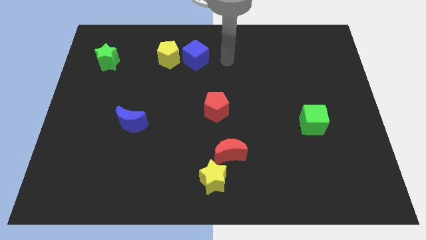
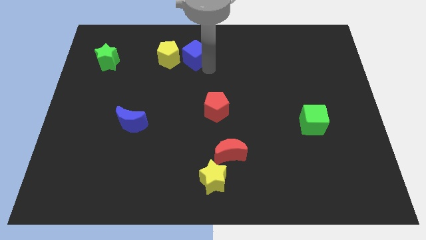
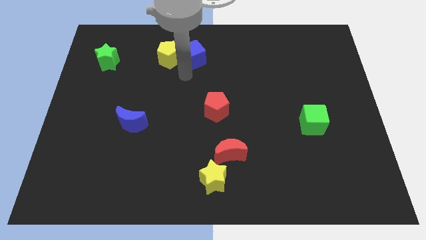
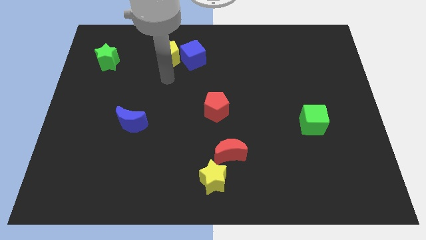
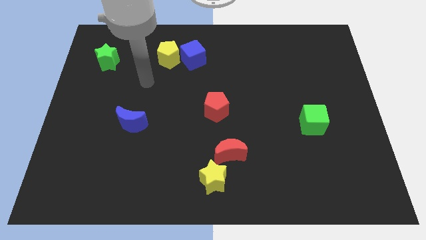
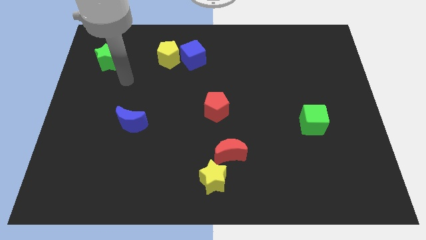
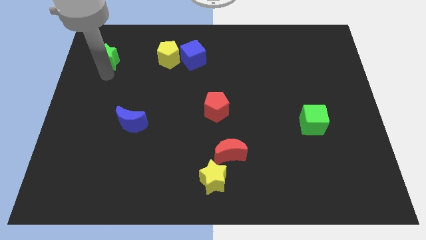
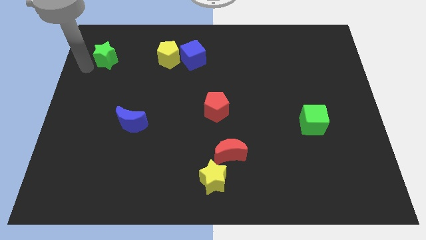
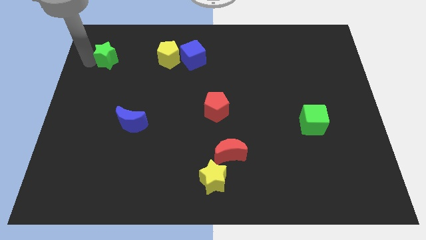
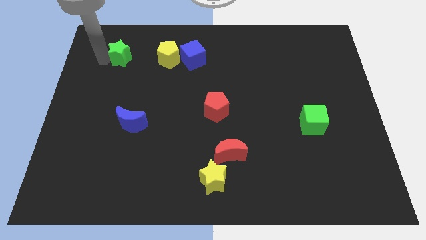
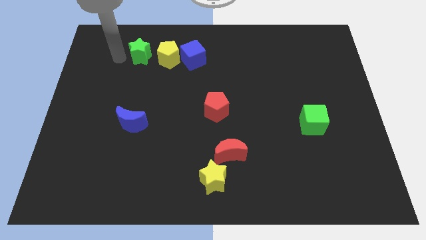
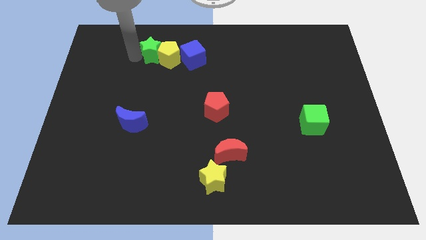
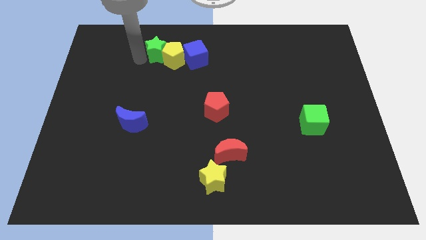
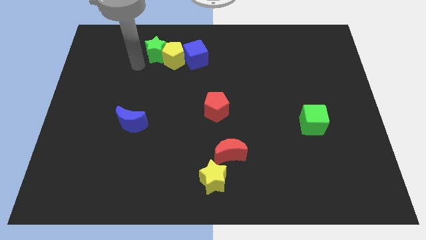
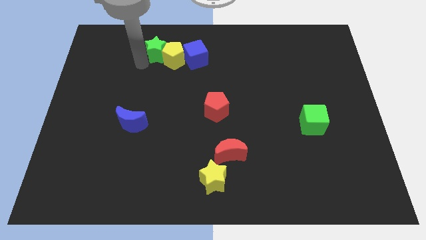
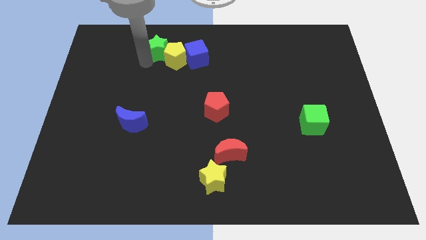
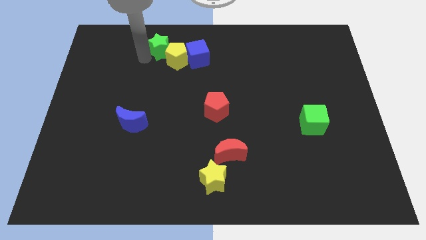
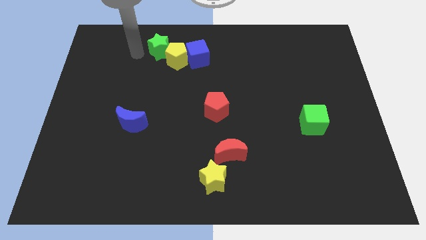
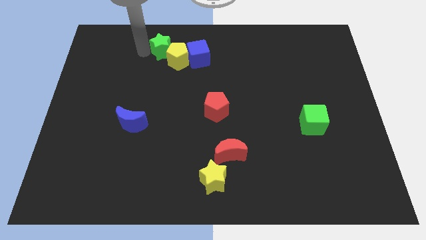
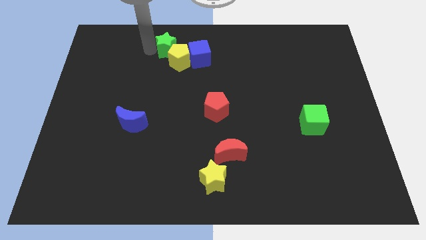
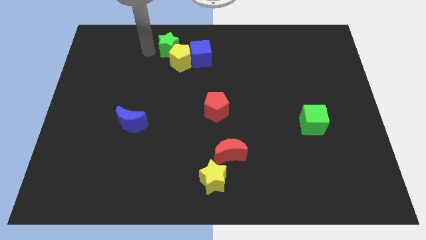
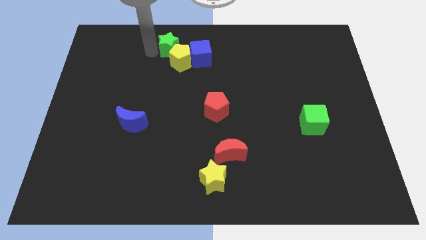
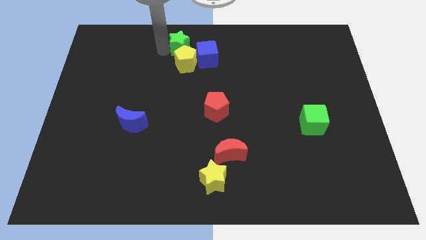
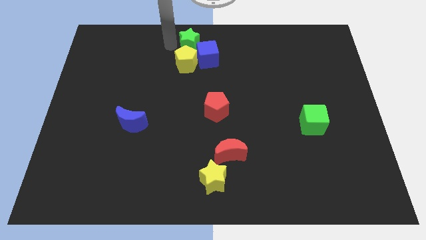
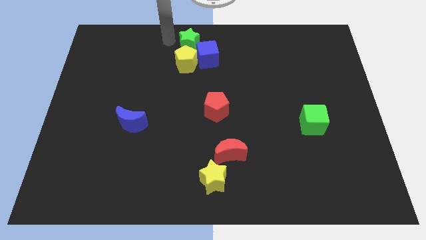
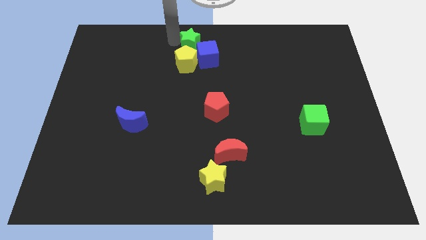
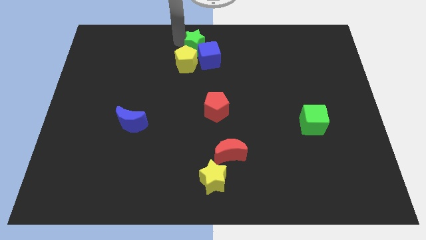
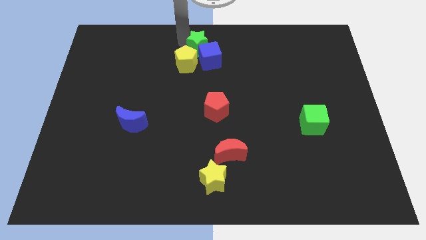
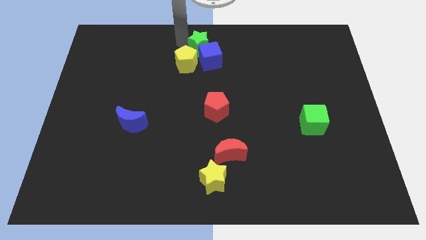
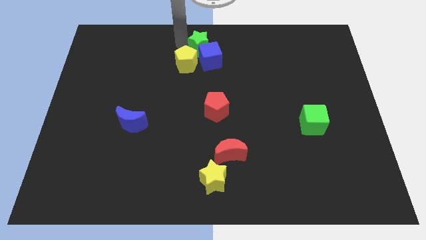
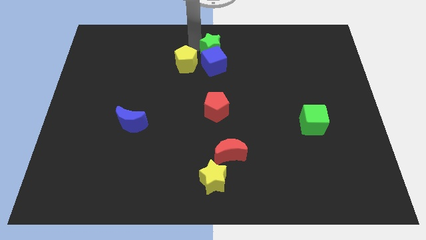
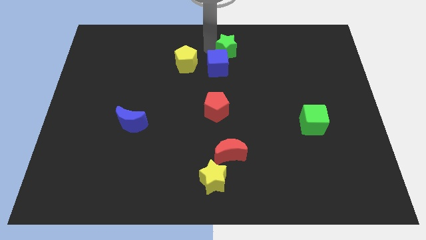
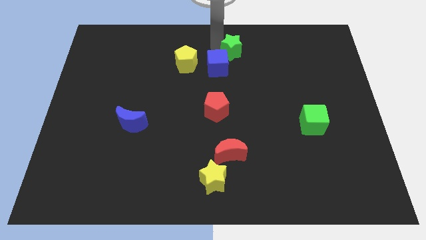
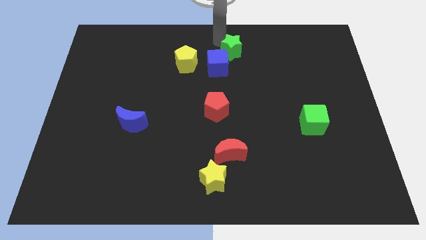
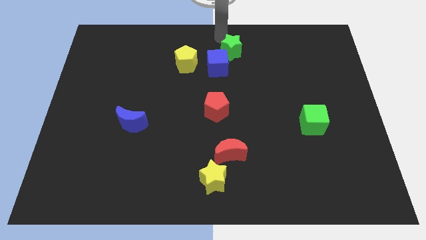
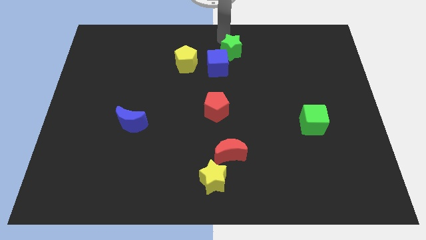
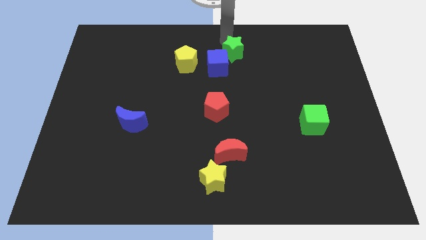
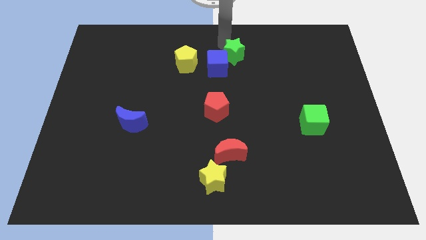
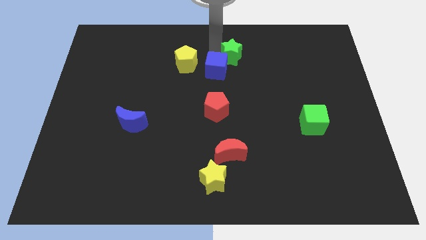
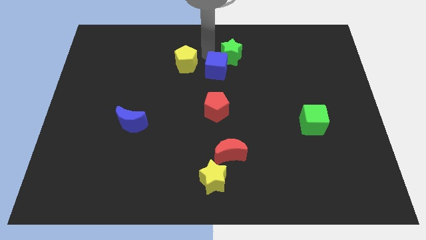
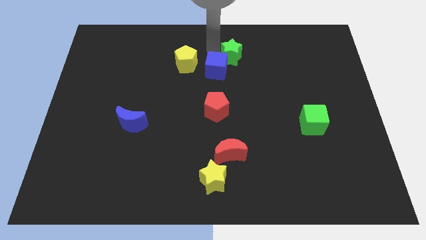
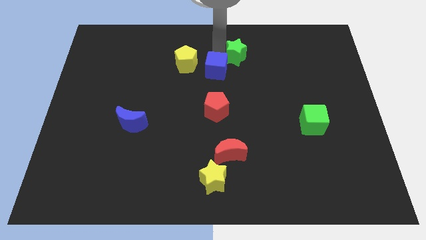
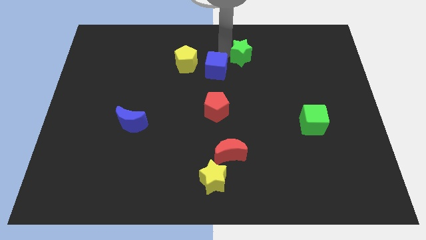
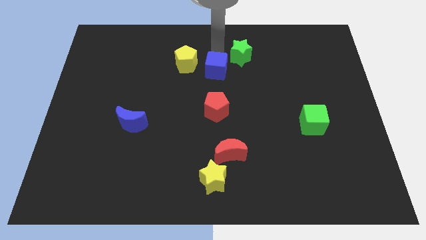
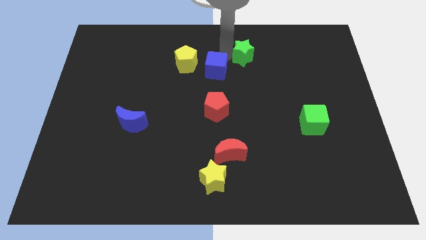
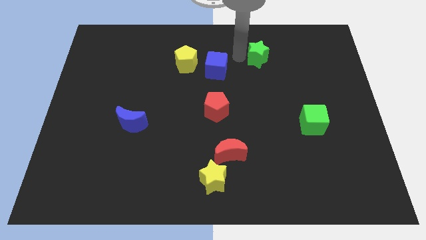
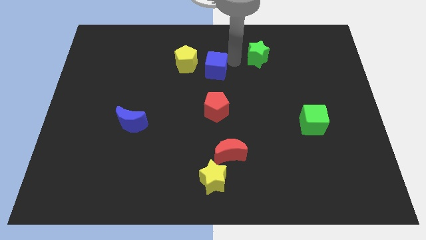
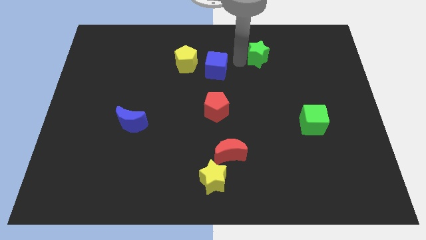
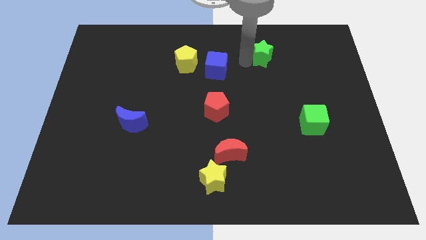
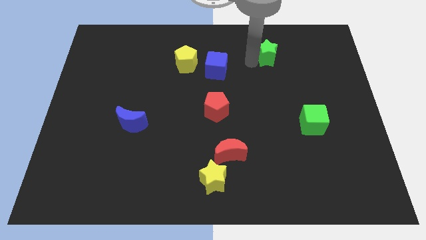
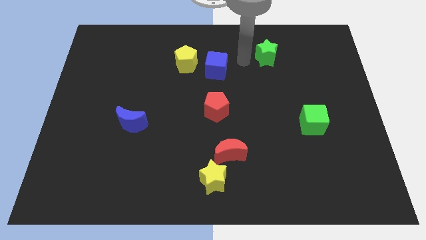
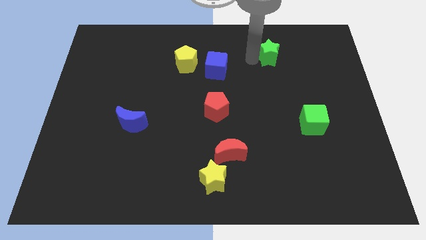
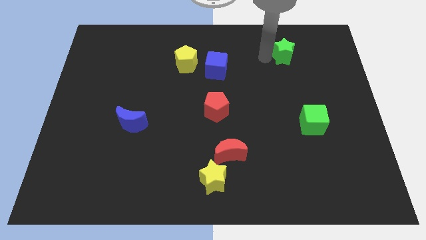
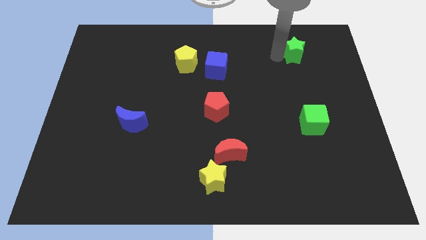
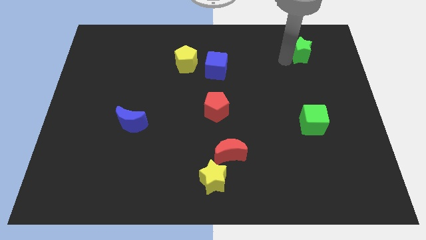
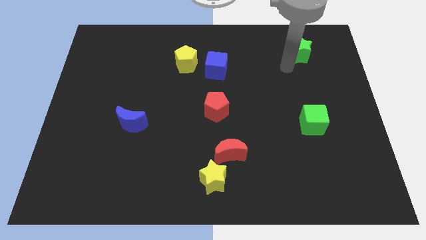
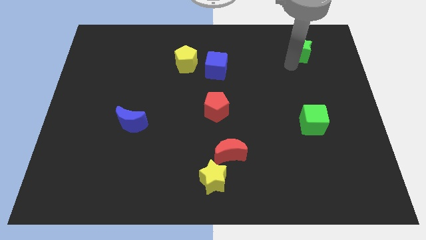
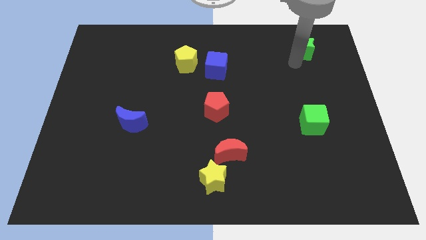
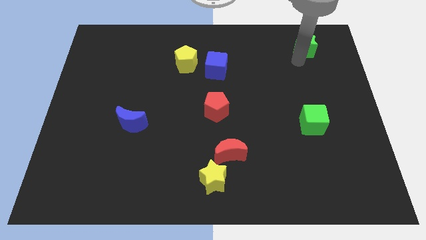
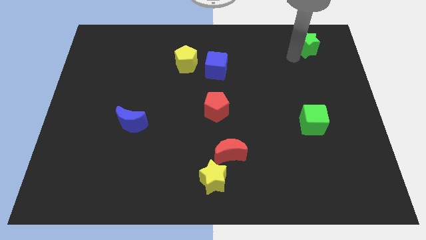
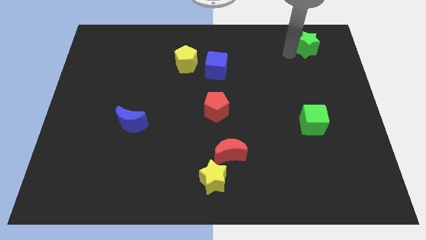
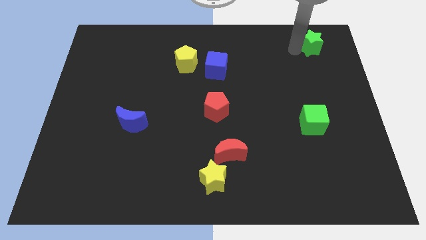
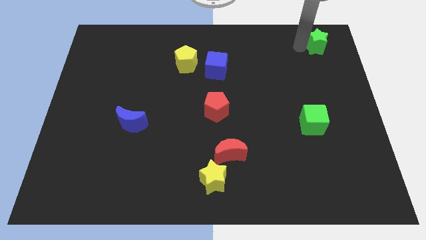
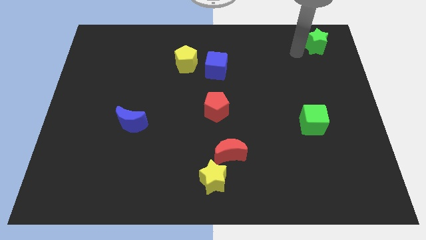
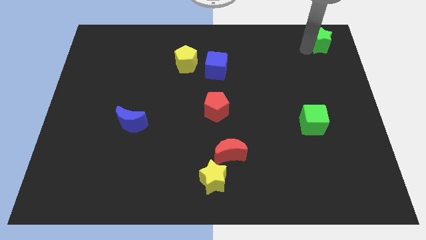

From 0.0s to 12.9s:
slide the green star to the top right corner
